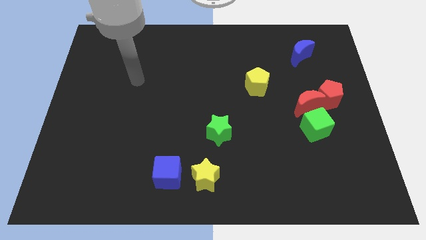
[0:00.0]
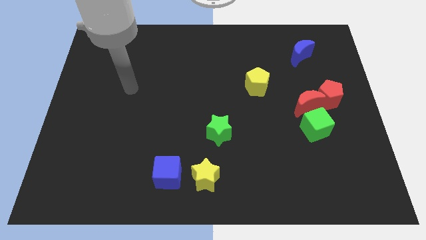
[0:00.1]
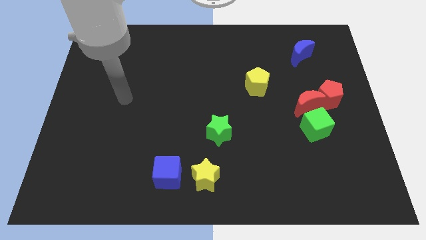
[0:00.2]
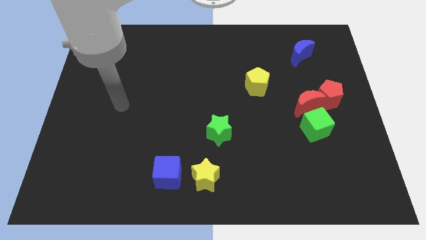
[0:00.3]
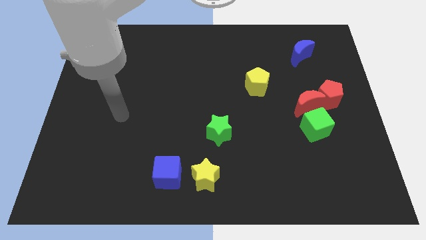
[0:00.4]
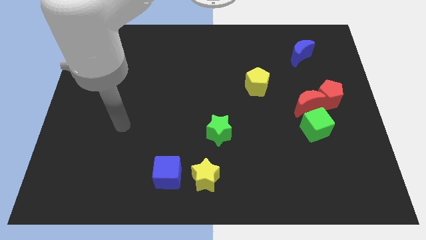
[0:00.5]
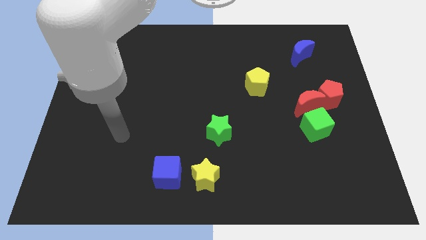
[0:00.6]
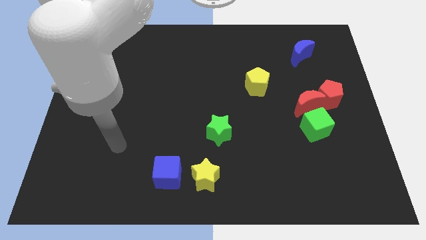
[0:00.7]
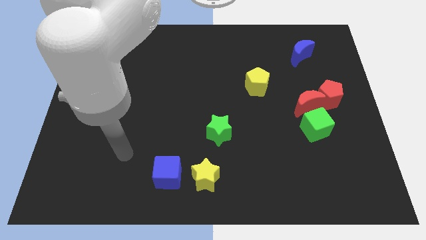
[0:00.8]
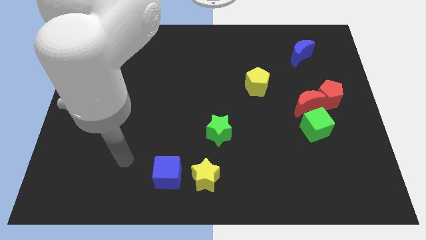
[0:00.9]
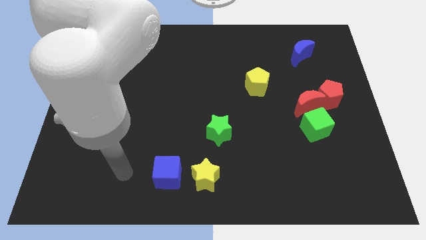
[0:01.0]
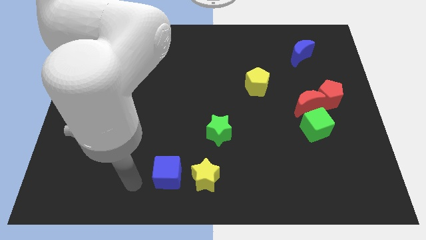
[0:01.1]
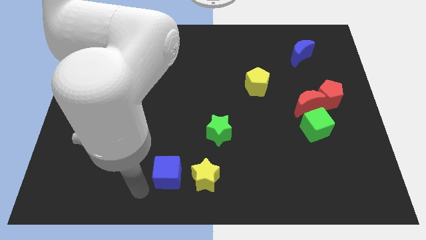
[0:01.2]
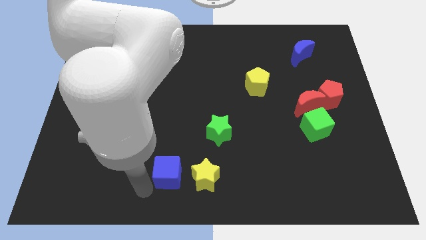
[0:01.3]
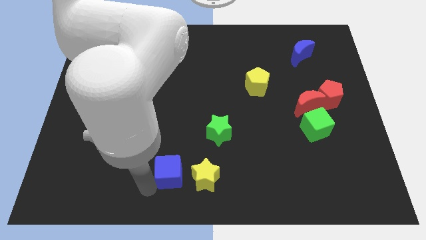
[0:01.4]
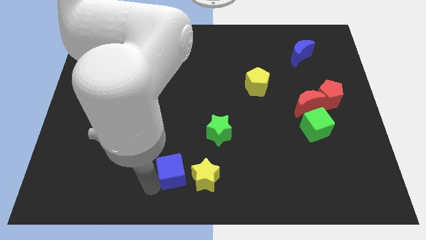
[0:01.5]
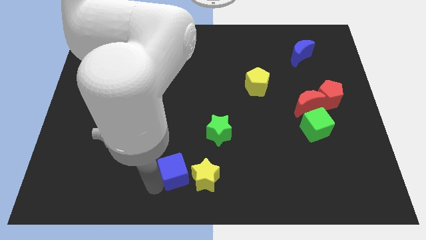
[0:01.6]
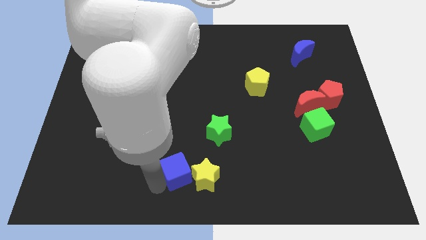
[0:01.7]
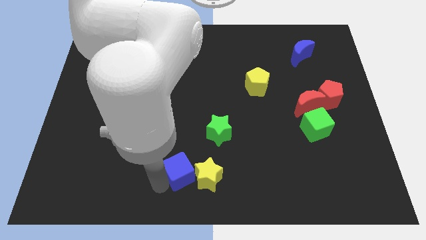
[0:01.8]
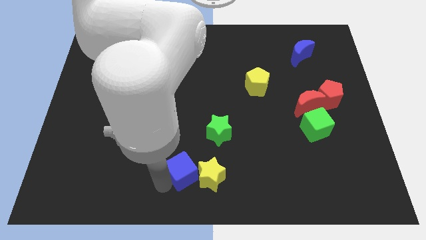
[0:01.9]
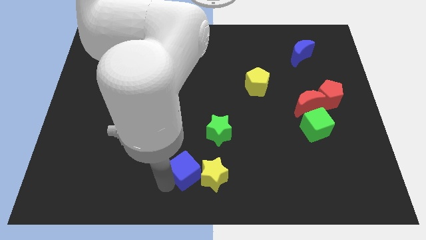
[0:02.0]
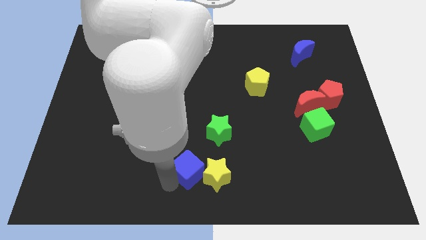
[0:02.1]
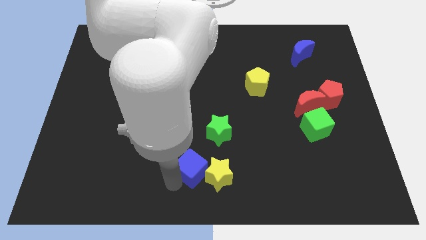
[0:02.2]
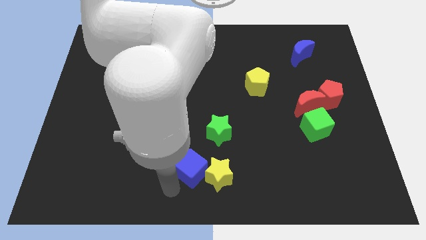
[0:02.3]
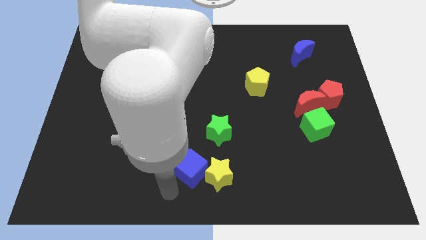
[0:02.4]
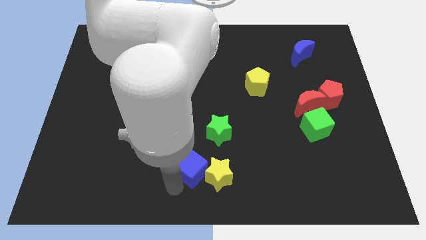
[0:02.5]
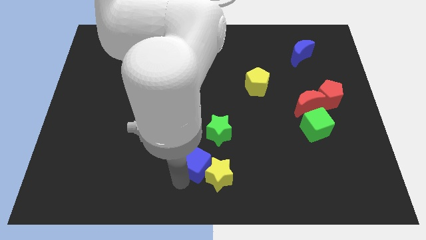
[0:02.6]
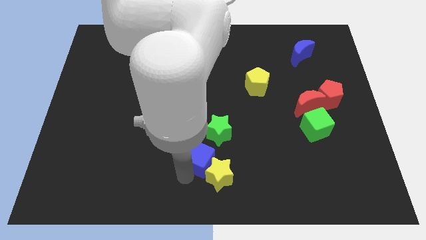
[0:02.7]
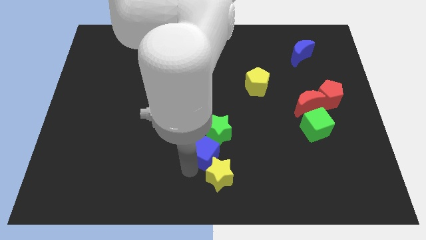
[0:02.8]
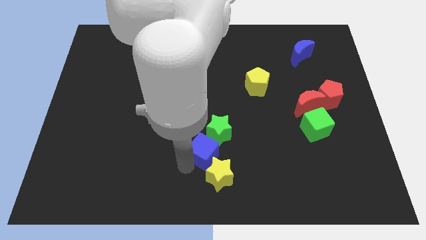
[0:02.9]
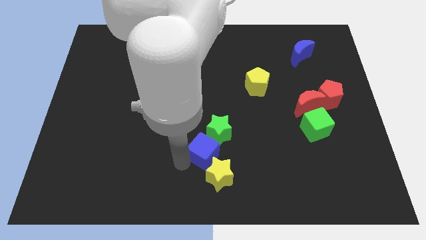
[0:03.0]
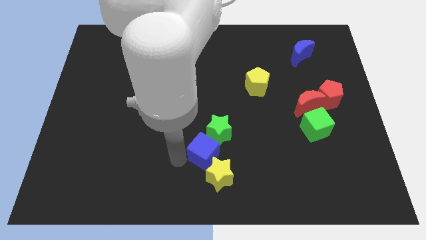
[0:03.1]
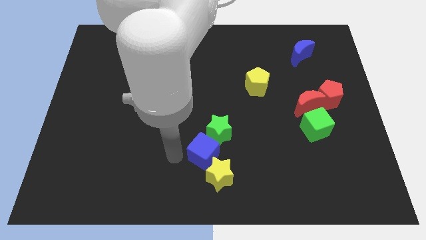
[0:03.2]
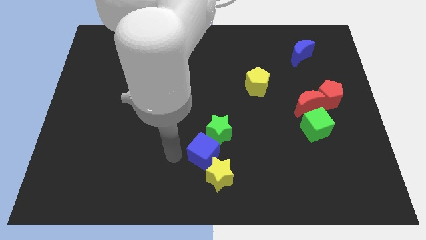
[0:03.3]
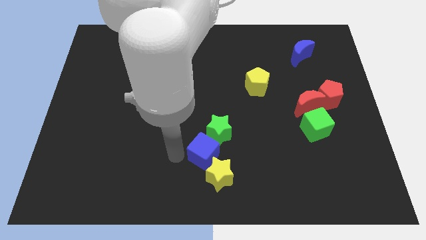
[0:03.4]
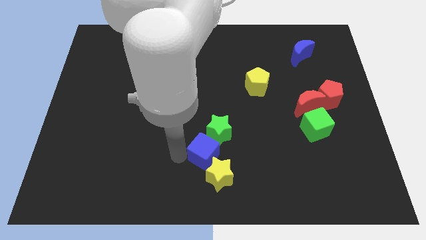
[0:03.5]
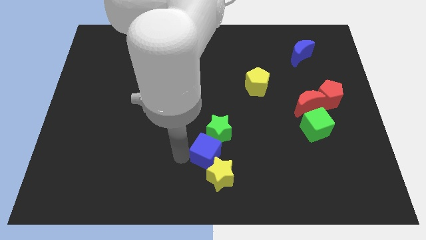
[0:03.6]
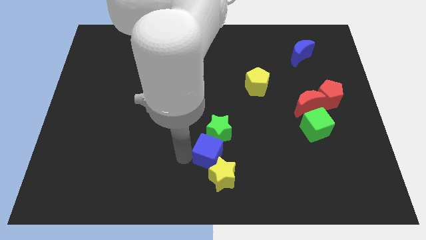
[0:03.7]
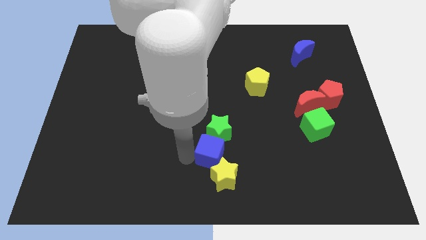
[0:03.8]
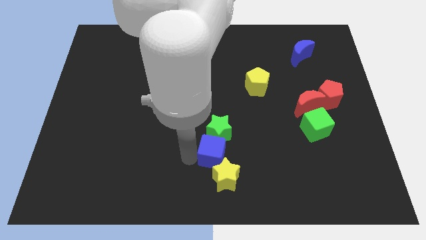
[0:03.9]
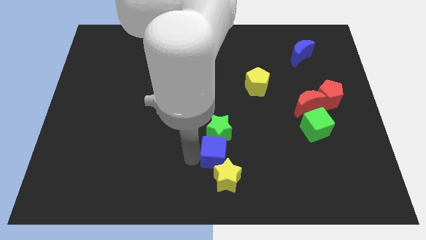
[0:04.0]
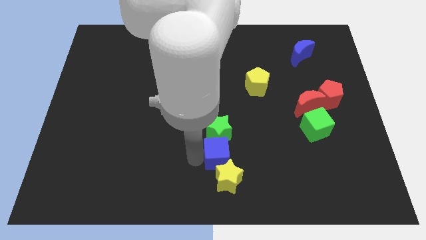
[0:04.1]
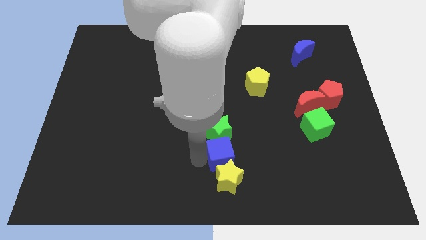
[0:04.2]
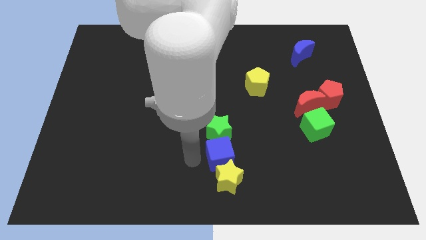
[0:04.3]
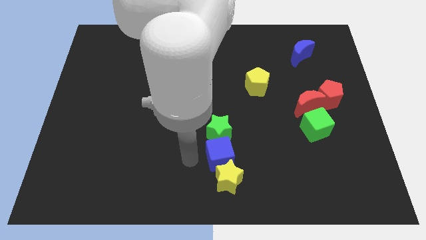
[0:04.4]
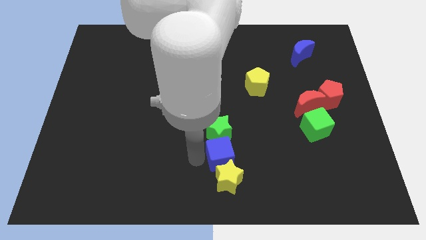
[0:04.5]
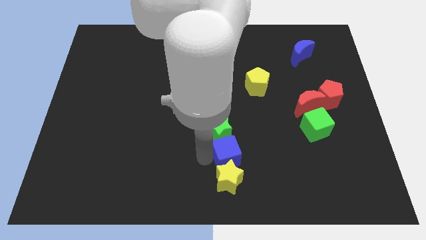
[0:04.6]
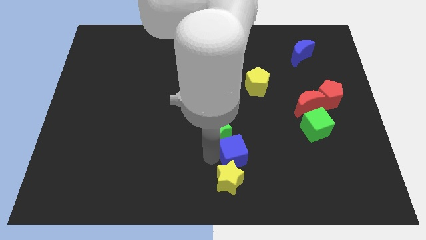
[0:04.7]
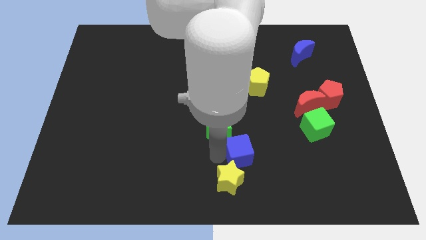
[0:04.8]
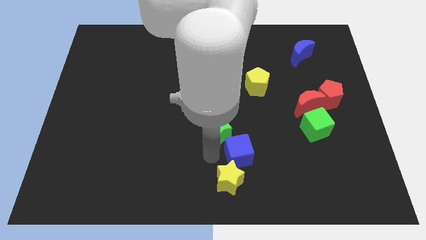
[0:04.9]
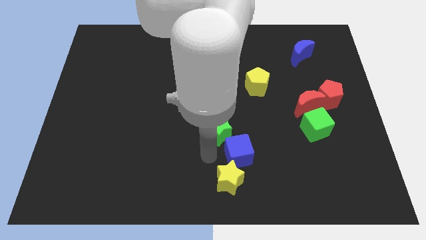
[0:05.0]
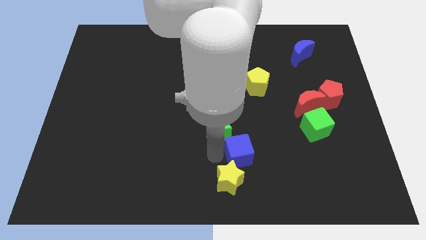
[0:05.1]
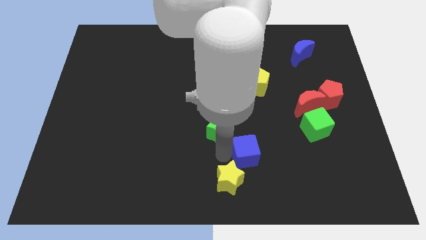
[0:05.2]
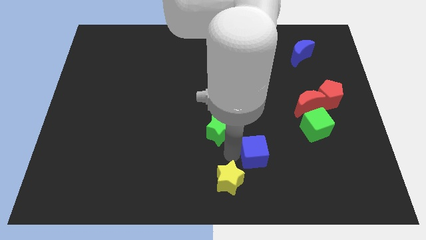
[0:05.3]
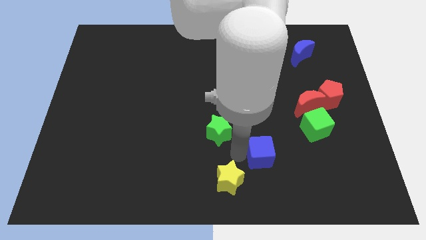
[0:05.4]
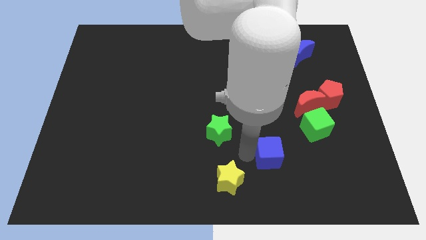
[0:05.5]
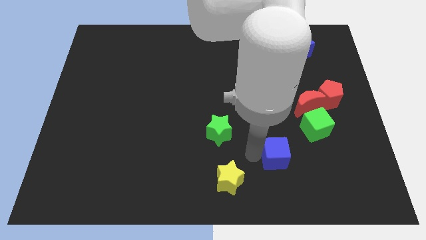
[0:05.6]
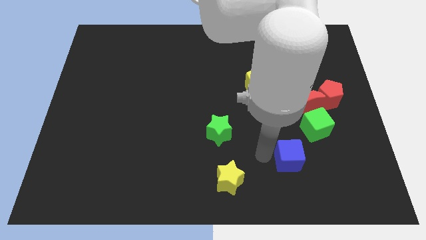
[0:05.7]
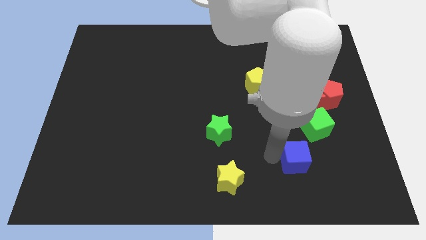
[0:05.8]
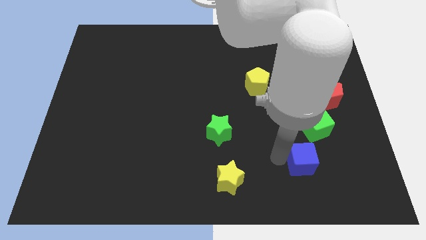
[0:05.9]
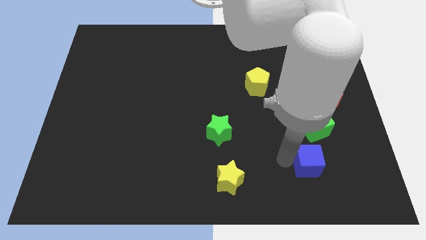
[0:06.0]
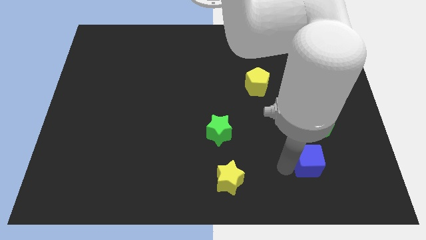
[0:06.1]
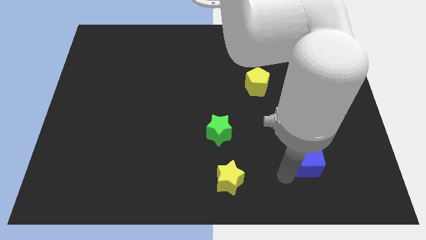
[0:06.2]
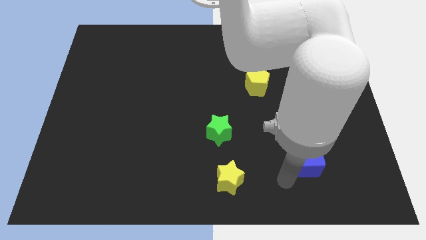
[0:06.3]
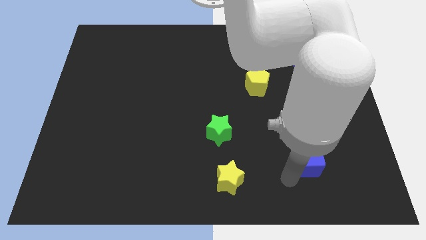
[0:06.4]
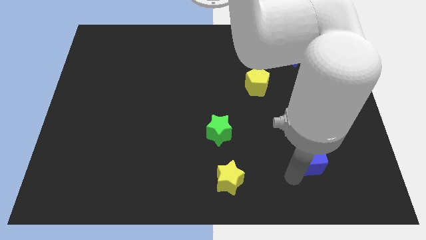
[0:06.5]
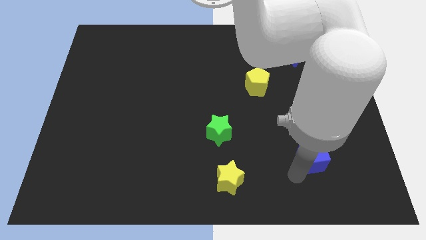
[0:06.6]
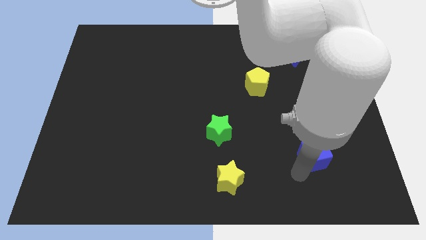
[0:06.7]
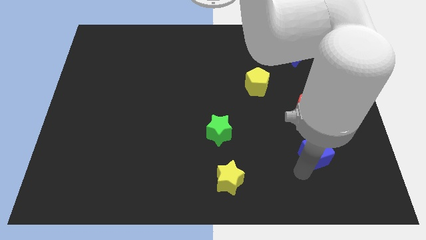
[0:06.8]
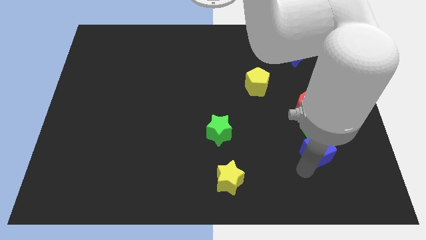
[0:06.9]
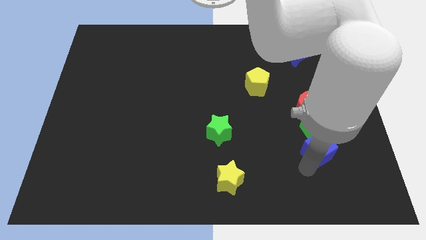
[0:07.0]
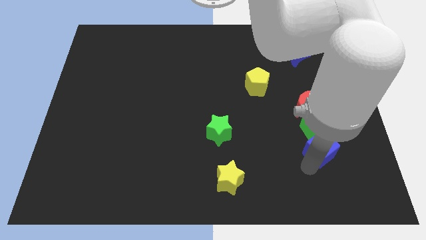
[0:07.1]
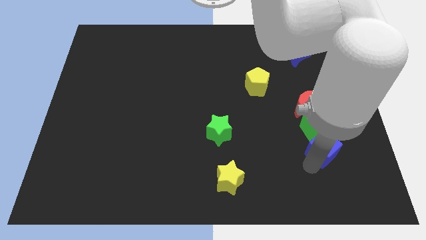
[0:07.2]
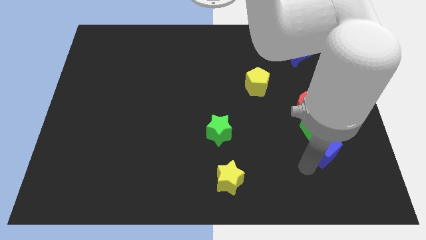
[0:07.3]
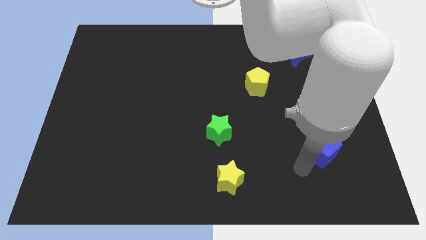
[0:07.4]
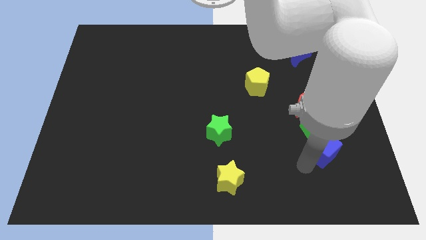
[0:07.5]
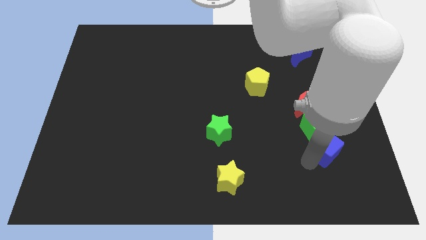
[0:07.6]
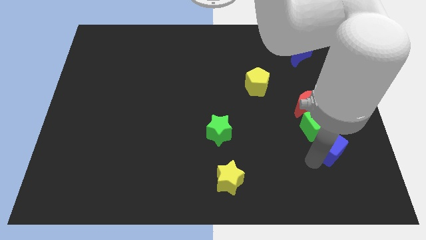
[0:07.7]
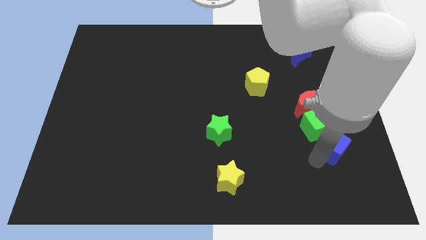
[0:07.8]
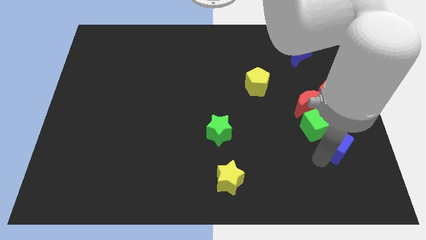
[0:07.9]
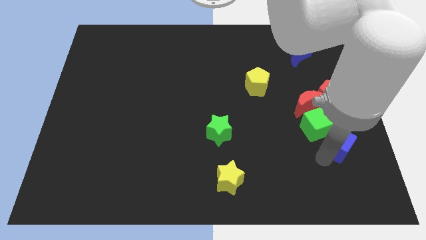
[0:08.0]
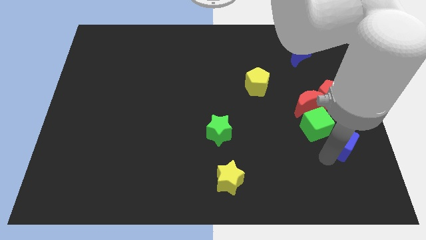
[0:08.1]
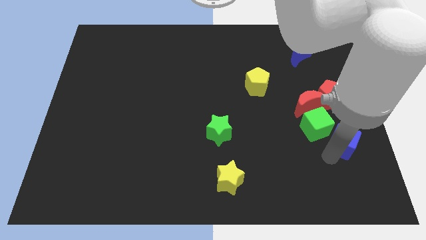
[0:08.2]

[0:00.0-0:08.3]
move the blue cube to the bottom right side of the red moon
